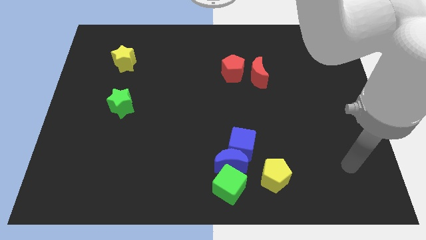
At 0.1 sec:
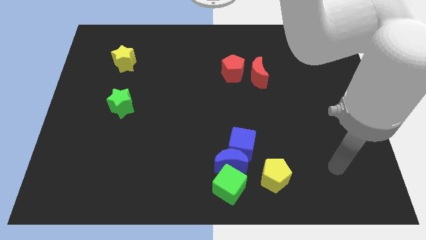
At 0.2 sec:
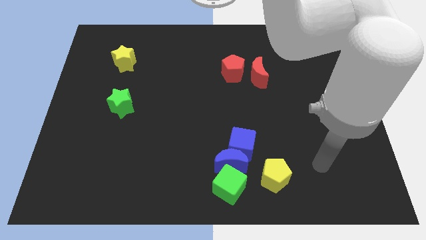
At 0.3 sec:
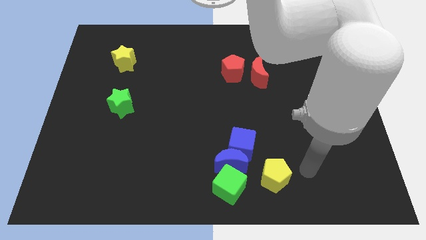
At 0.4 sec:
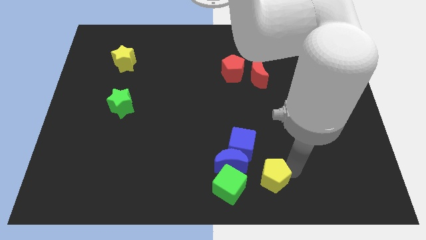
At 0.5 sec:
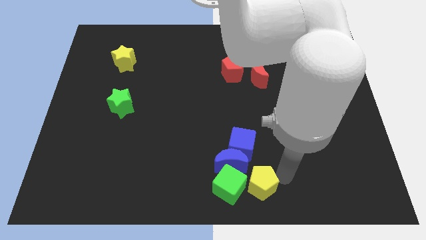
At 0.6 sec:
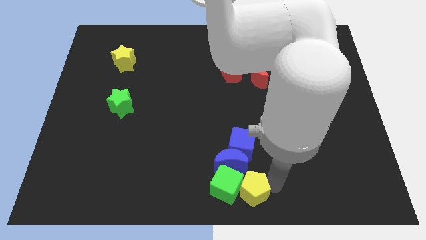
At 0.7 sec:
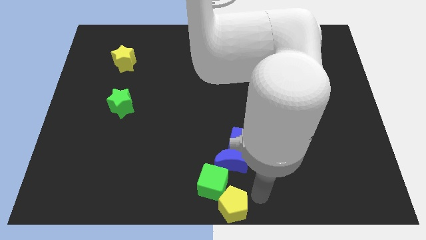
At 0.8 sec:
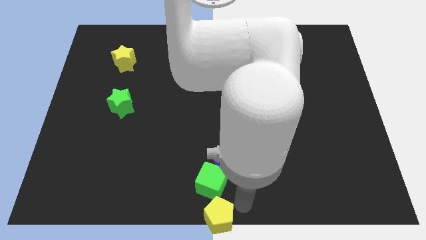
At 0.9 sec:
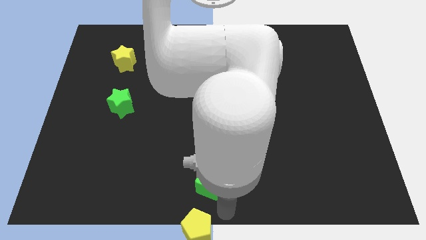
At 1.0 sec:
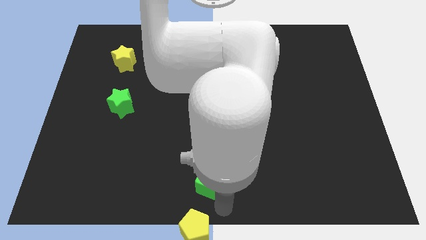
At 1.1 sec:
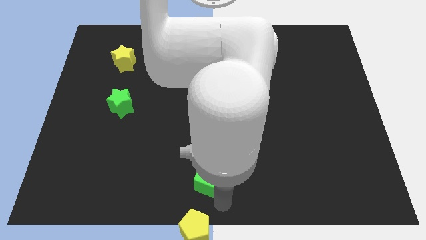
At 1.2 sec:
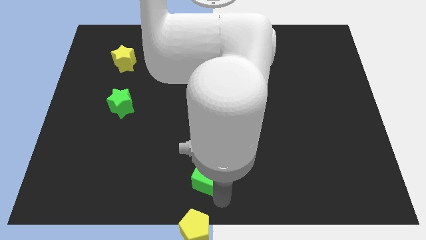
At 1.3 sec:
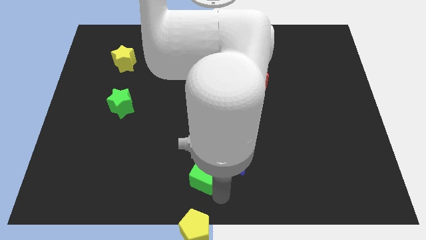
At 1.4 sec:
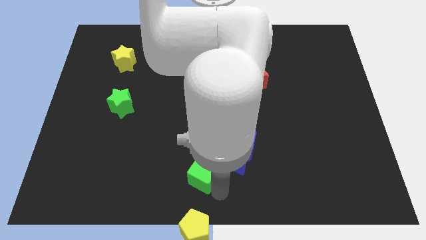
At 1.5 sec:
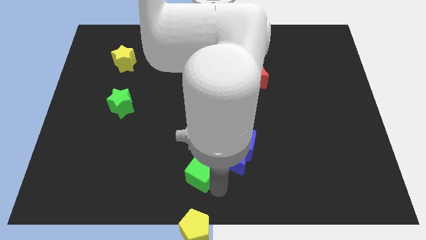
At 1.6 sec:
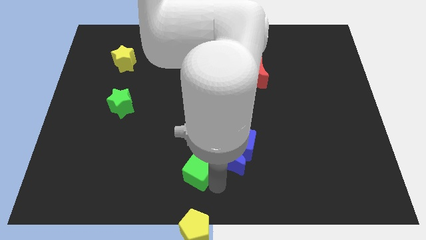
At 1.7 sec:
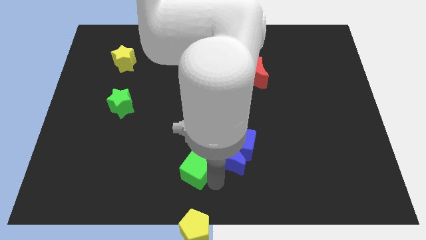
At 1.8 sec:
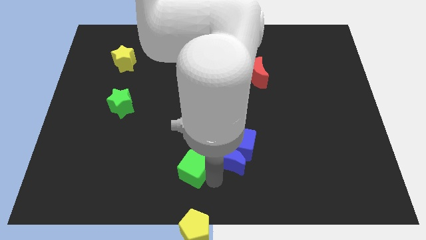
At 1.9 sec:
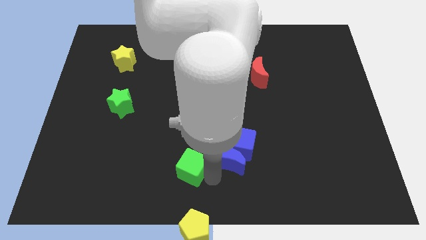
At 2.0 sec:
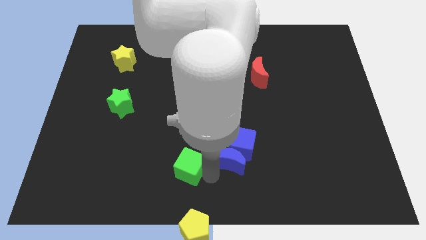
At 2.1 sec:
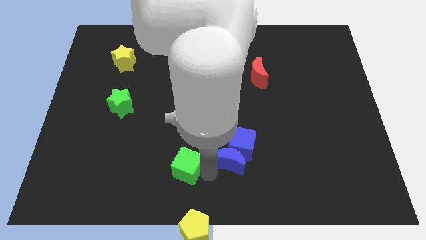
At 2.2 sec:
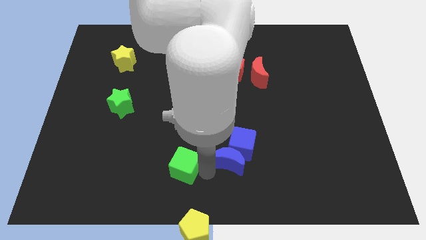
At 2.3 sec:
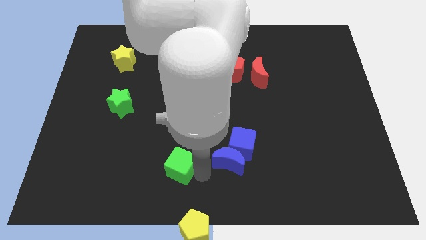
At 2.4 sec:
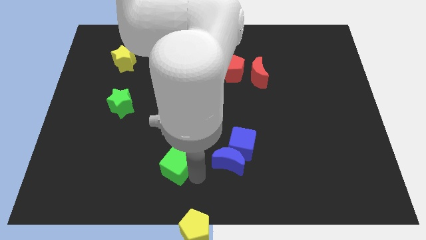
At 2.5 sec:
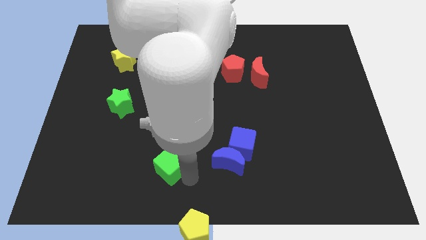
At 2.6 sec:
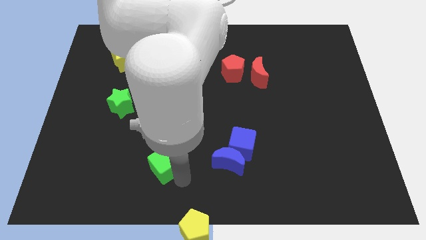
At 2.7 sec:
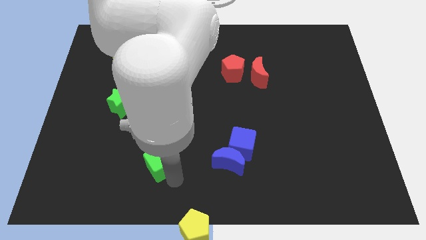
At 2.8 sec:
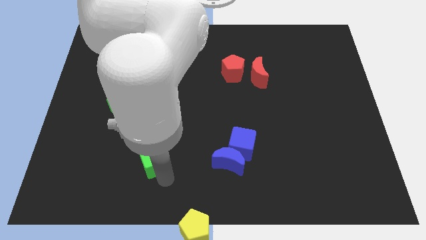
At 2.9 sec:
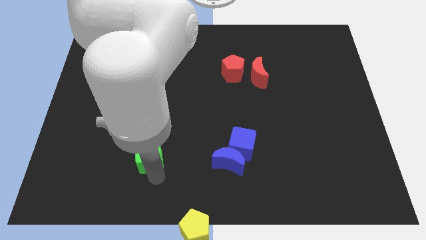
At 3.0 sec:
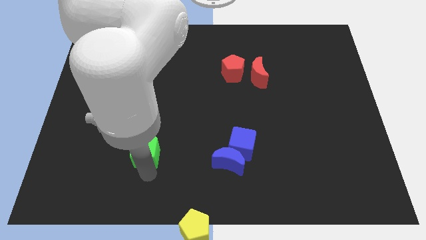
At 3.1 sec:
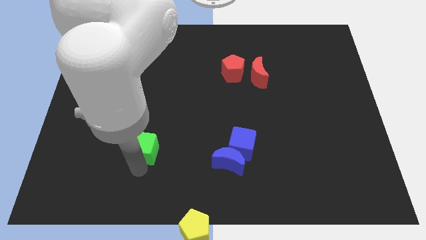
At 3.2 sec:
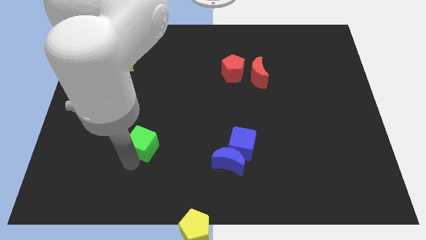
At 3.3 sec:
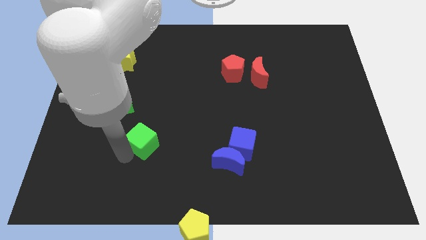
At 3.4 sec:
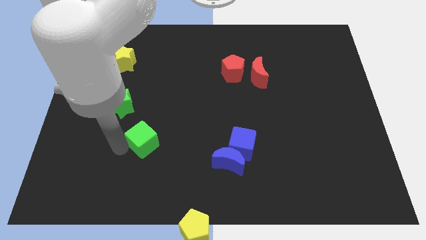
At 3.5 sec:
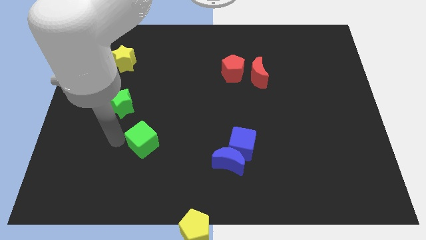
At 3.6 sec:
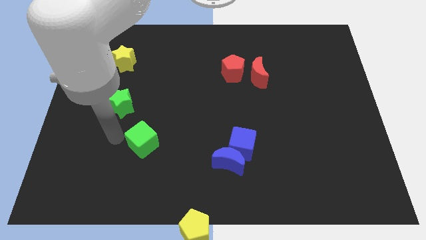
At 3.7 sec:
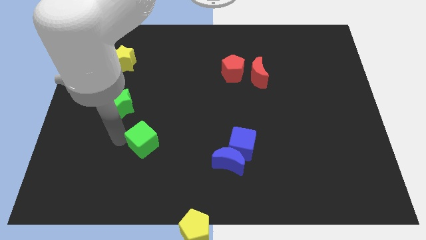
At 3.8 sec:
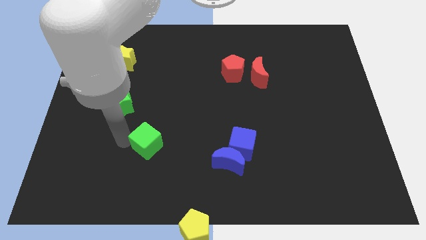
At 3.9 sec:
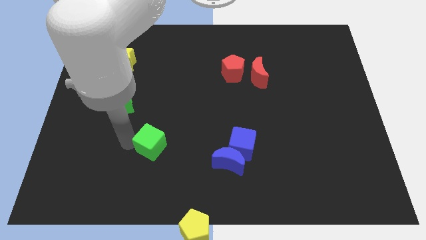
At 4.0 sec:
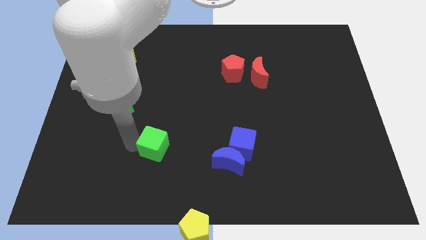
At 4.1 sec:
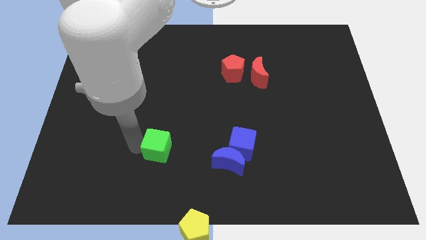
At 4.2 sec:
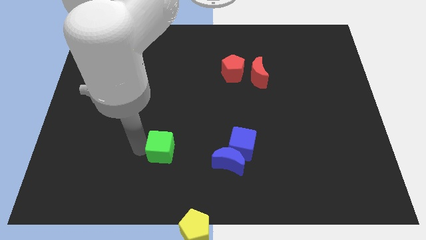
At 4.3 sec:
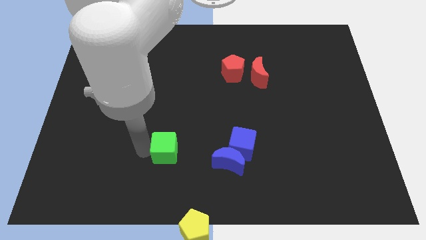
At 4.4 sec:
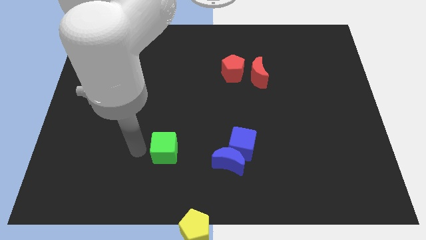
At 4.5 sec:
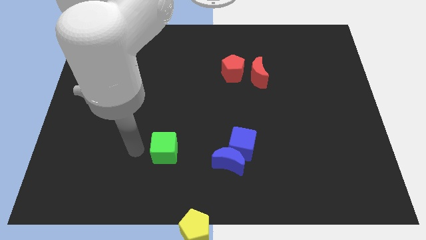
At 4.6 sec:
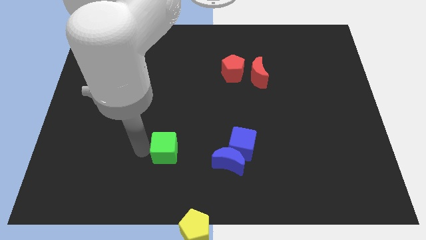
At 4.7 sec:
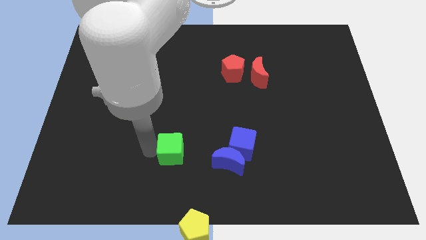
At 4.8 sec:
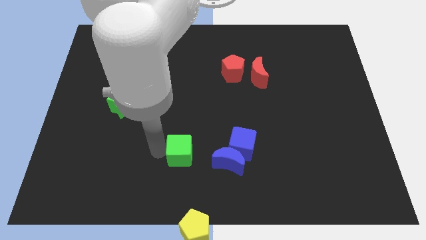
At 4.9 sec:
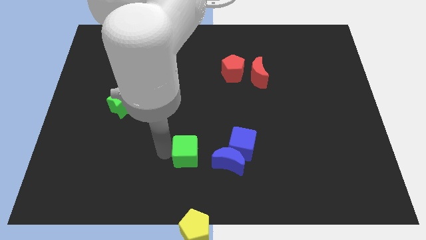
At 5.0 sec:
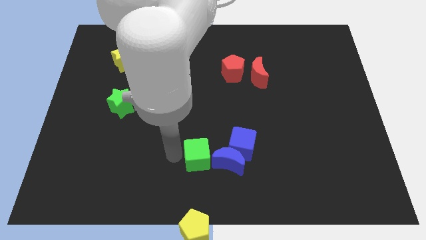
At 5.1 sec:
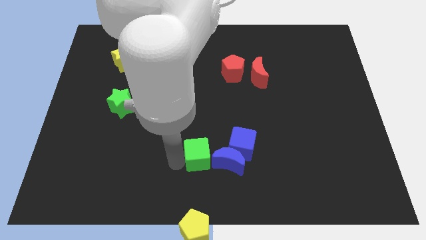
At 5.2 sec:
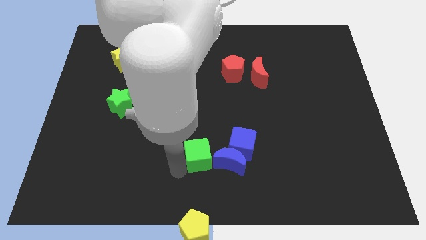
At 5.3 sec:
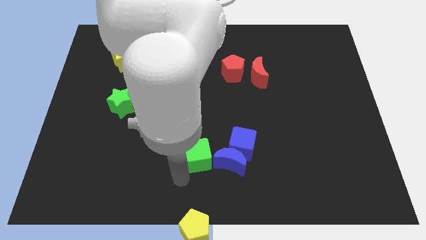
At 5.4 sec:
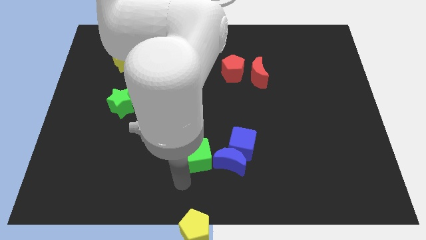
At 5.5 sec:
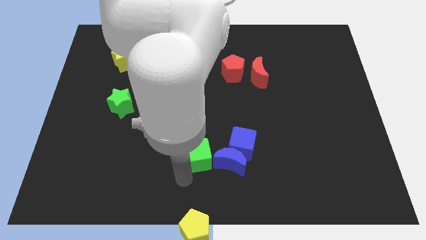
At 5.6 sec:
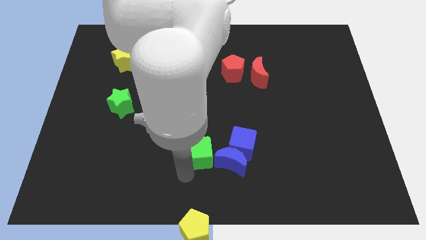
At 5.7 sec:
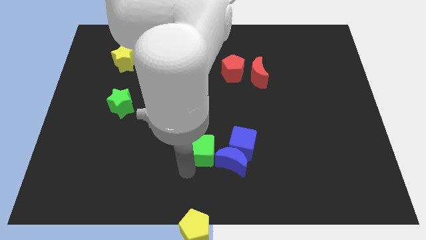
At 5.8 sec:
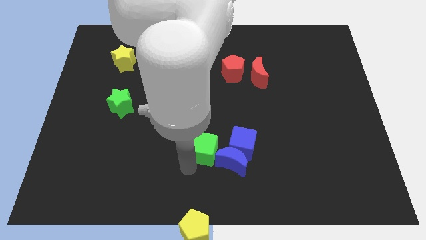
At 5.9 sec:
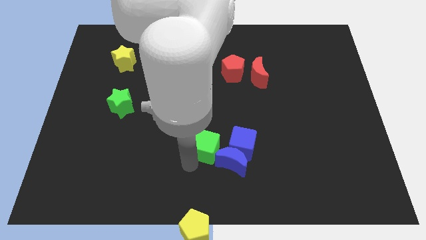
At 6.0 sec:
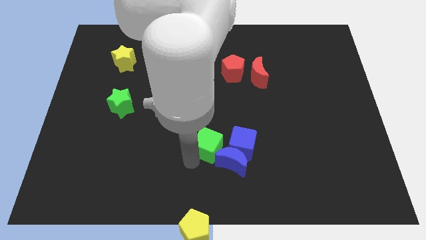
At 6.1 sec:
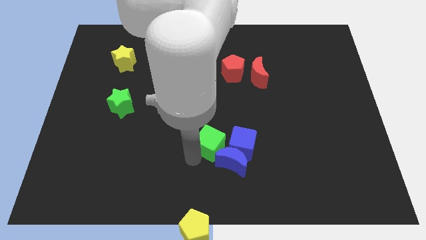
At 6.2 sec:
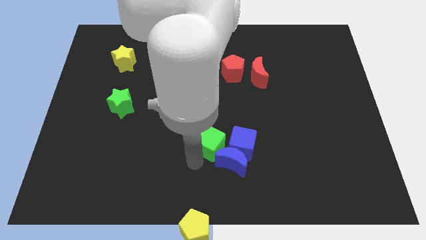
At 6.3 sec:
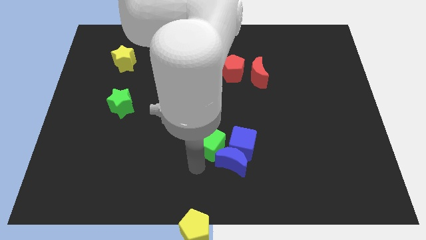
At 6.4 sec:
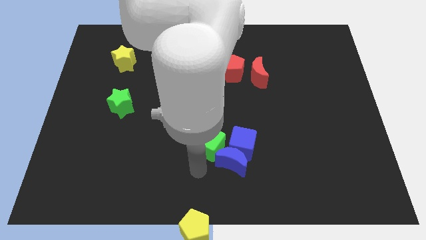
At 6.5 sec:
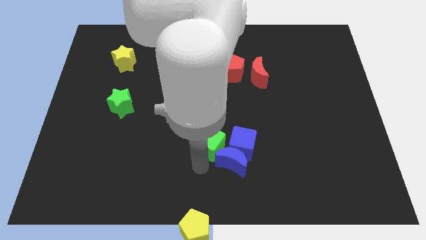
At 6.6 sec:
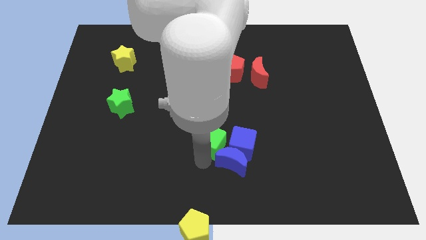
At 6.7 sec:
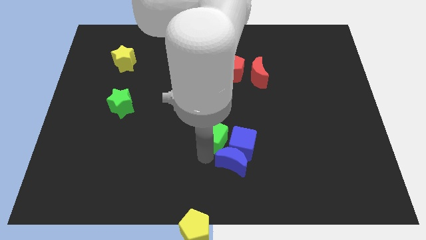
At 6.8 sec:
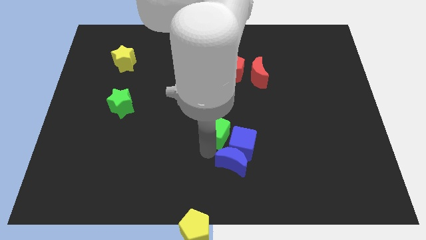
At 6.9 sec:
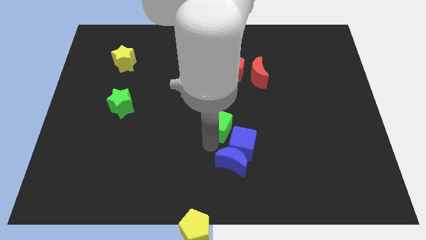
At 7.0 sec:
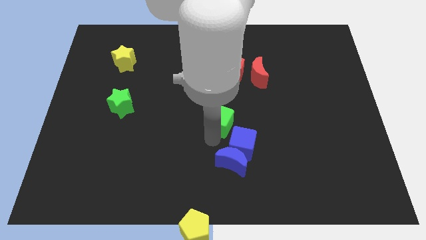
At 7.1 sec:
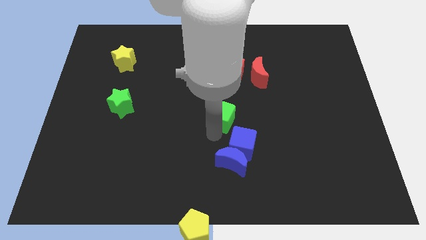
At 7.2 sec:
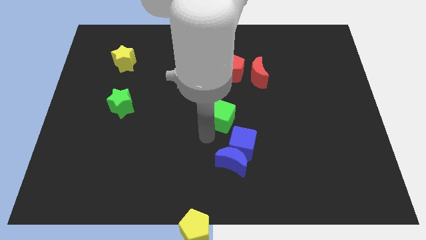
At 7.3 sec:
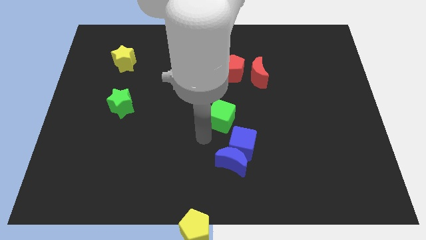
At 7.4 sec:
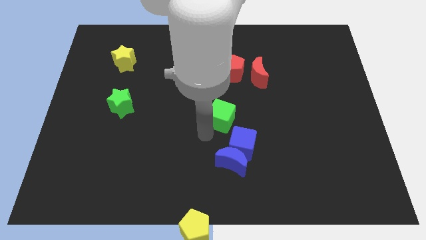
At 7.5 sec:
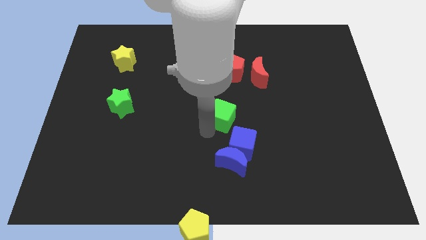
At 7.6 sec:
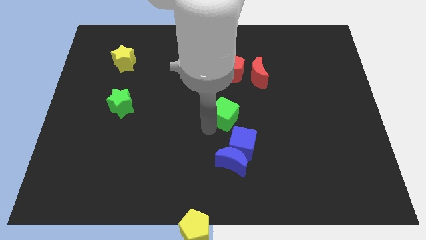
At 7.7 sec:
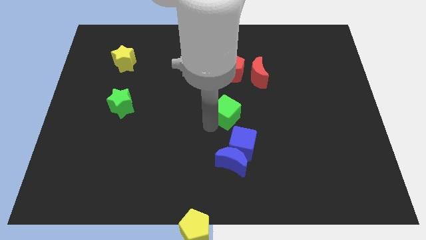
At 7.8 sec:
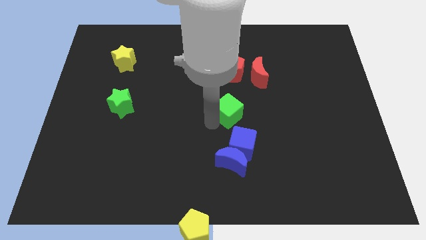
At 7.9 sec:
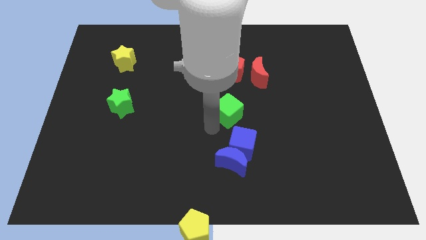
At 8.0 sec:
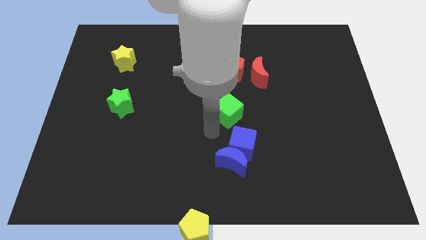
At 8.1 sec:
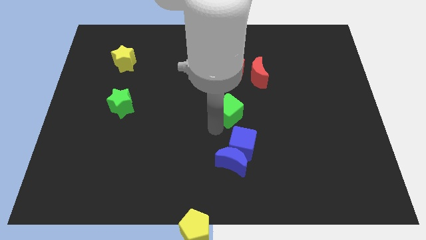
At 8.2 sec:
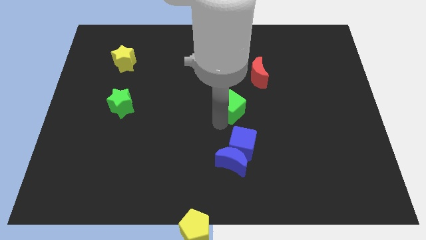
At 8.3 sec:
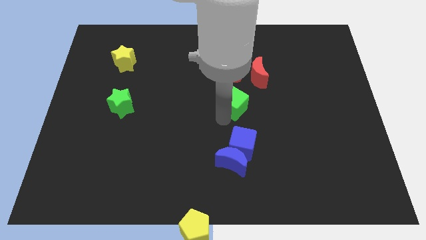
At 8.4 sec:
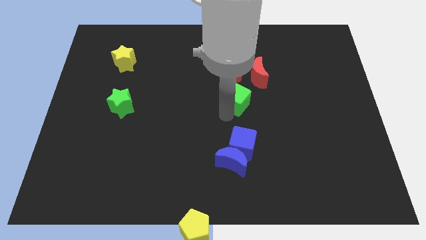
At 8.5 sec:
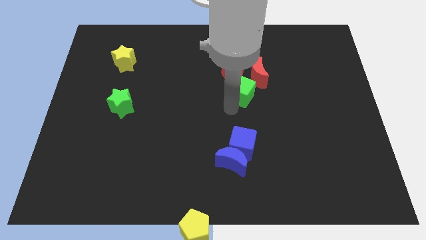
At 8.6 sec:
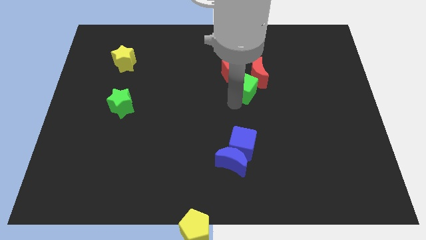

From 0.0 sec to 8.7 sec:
push the green cube towards the red moon
